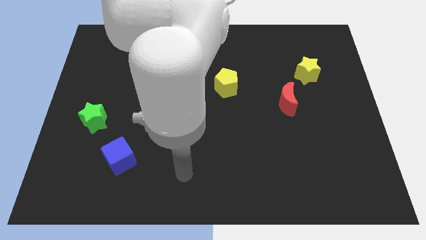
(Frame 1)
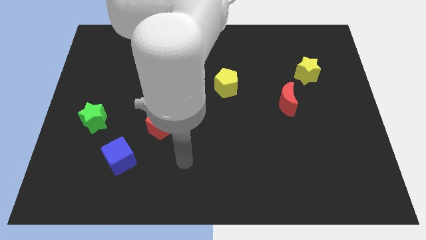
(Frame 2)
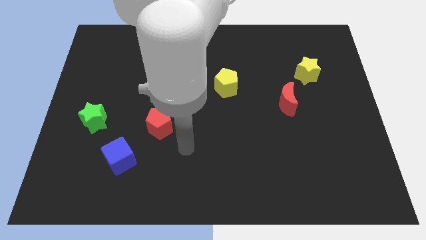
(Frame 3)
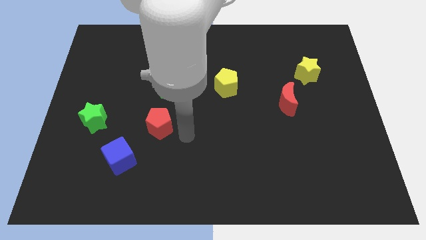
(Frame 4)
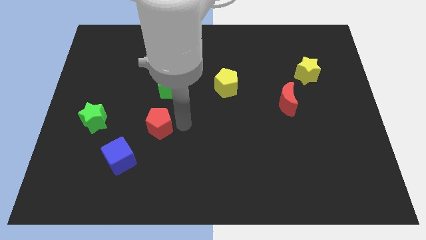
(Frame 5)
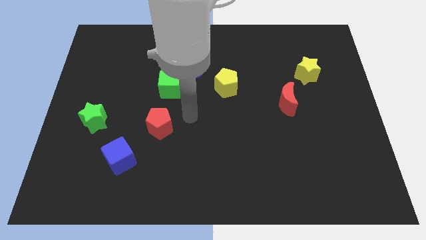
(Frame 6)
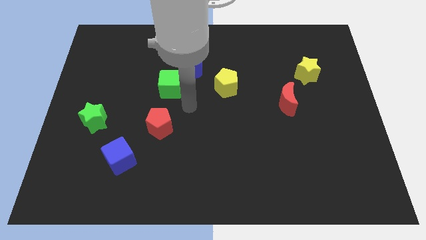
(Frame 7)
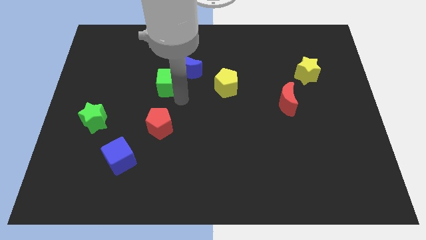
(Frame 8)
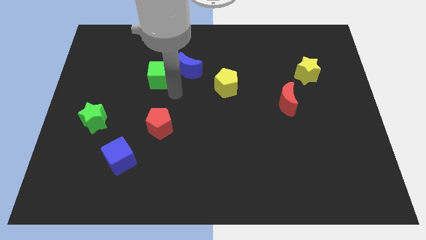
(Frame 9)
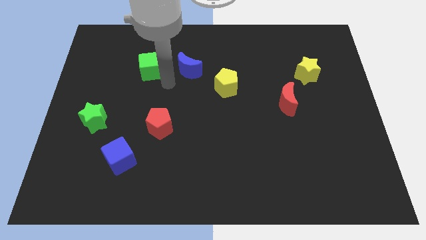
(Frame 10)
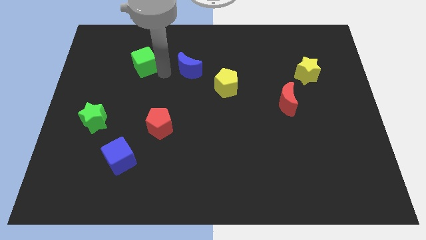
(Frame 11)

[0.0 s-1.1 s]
pull the blue moon apart from the green cube

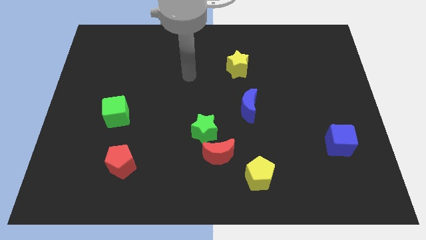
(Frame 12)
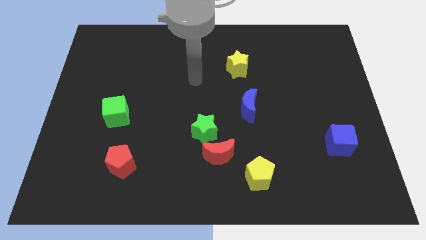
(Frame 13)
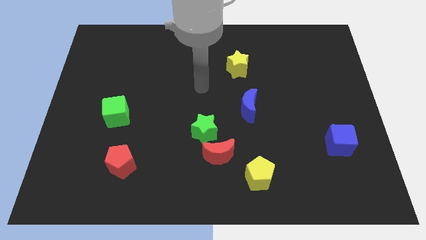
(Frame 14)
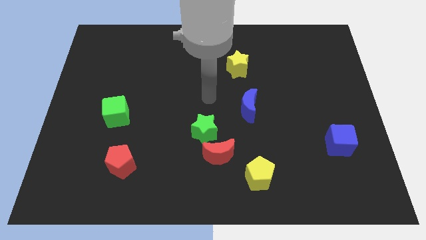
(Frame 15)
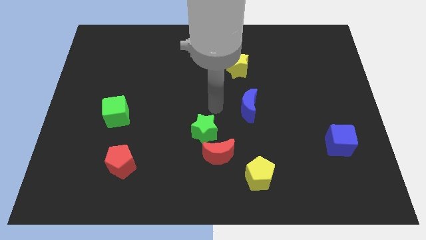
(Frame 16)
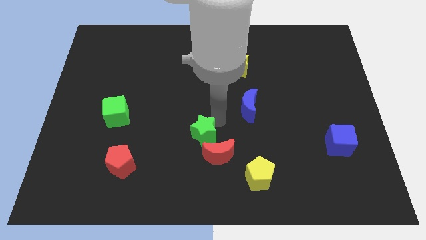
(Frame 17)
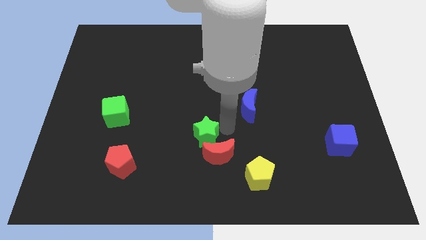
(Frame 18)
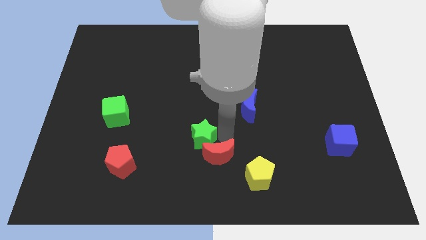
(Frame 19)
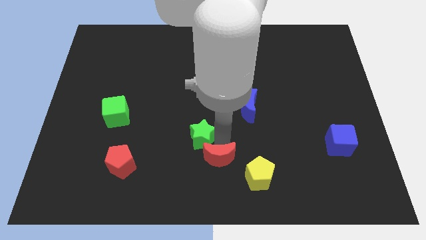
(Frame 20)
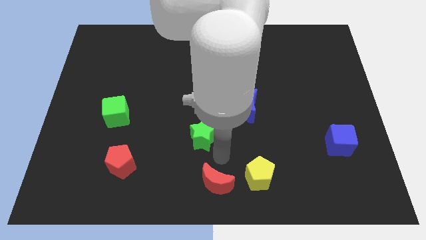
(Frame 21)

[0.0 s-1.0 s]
separate the green star from the red moon

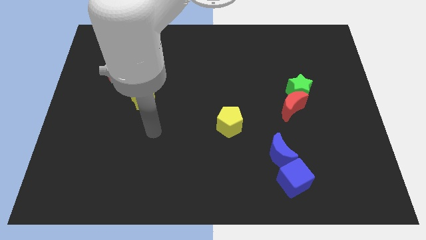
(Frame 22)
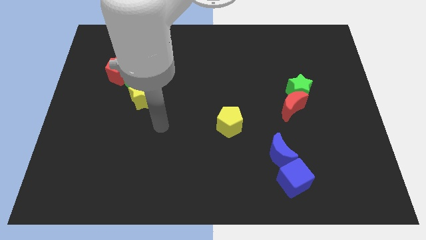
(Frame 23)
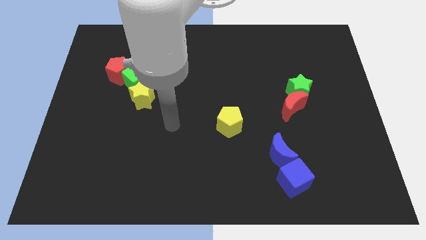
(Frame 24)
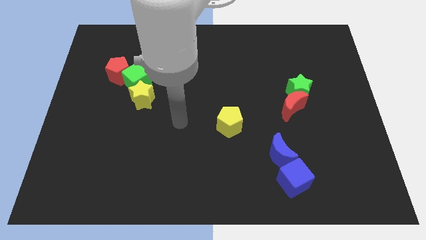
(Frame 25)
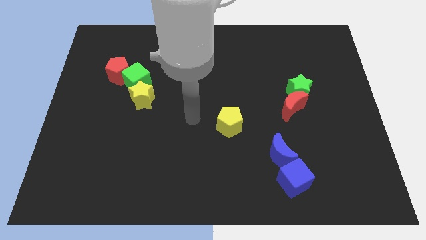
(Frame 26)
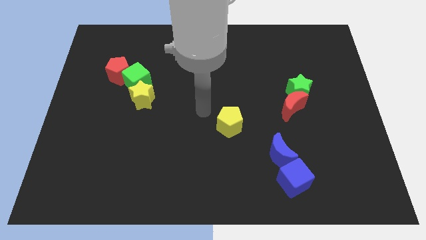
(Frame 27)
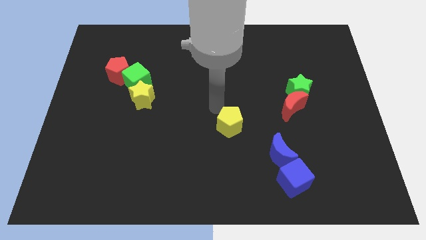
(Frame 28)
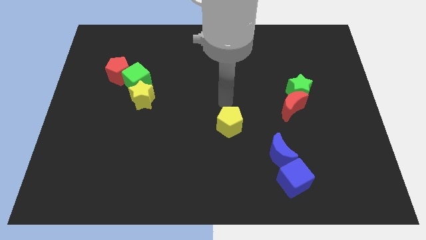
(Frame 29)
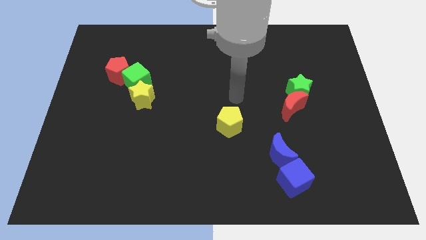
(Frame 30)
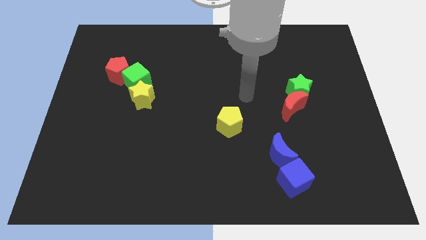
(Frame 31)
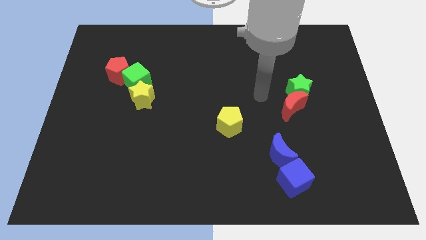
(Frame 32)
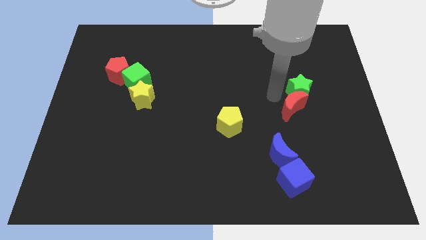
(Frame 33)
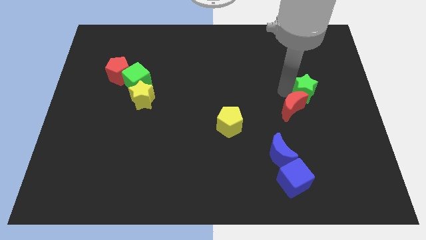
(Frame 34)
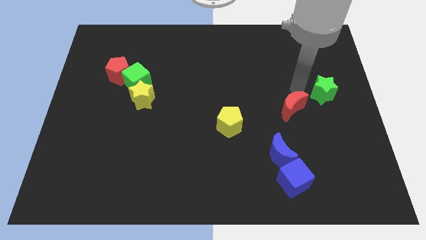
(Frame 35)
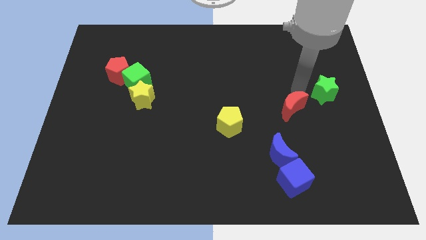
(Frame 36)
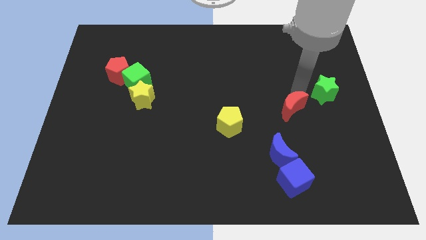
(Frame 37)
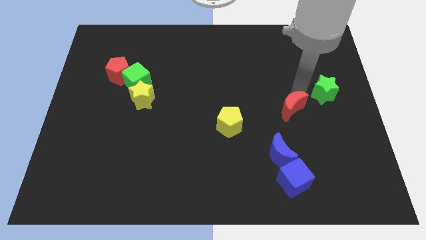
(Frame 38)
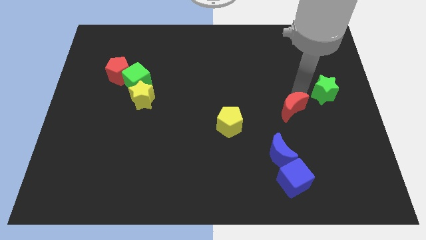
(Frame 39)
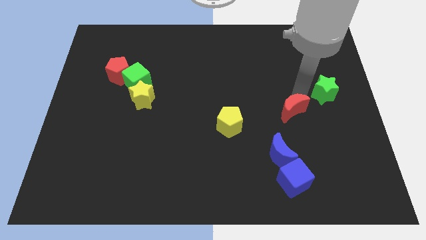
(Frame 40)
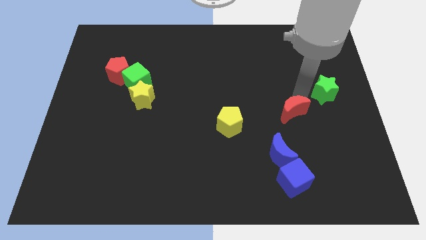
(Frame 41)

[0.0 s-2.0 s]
pull the red moon apart from the green star

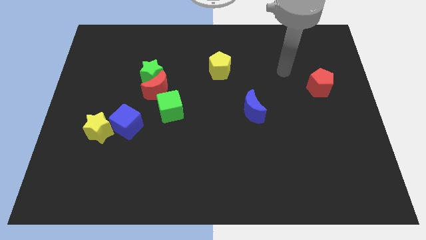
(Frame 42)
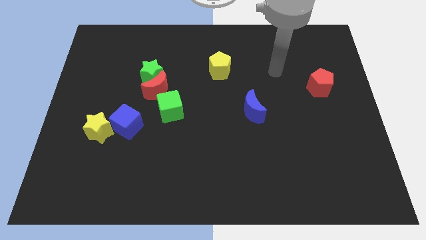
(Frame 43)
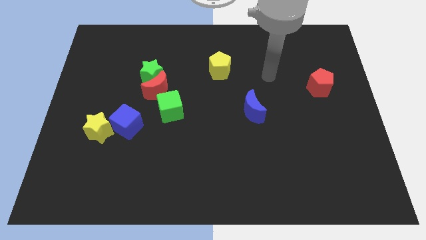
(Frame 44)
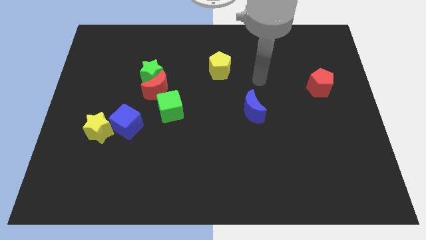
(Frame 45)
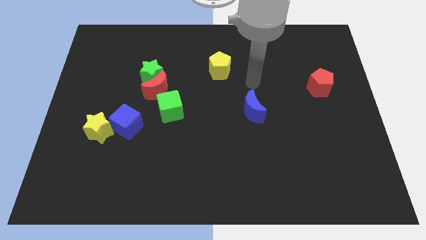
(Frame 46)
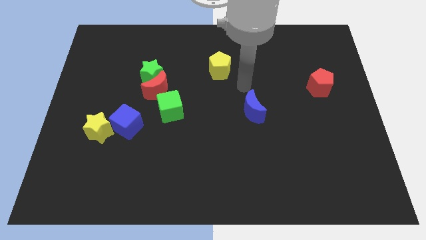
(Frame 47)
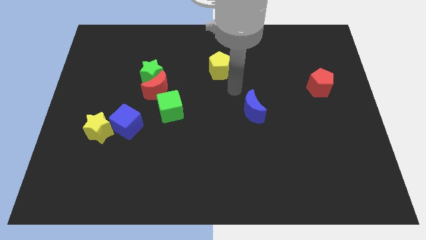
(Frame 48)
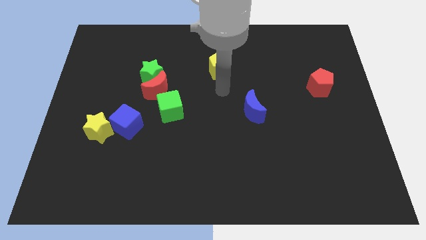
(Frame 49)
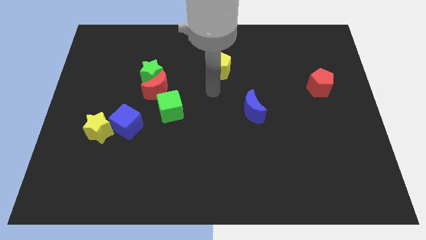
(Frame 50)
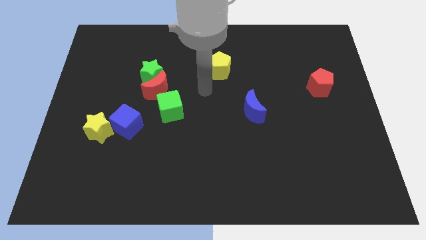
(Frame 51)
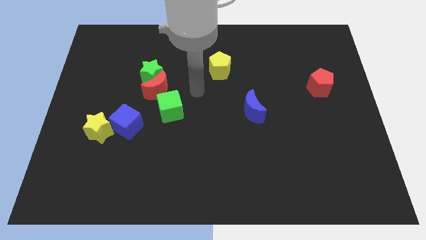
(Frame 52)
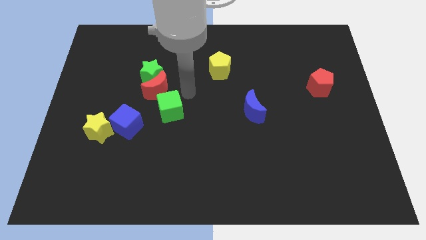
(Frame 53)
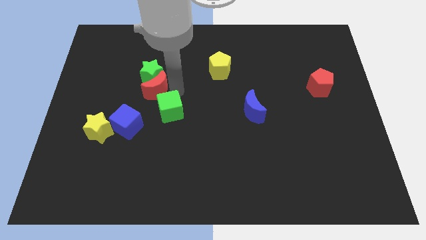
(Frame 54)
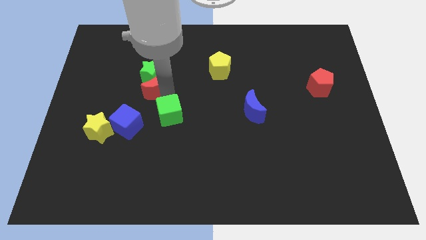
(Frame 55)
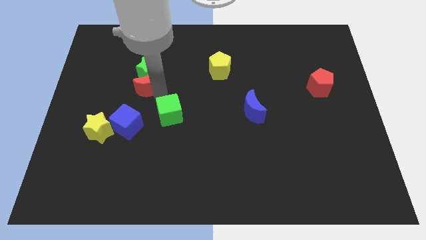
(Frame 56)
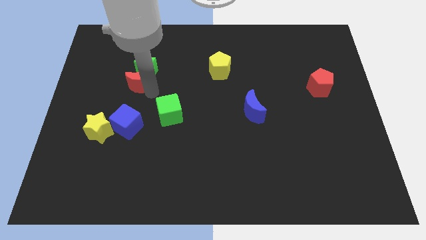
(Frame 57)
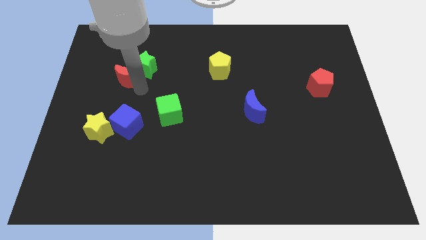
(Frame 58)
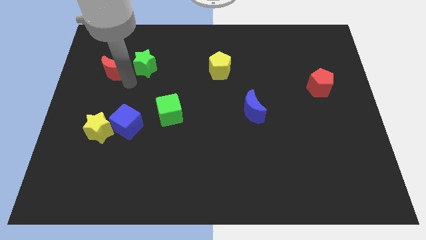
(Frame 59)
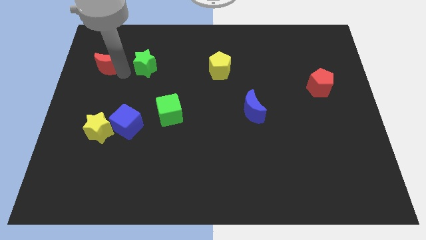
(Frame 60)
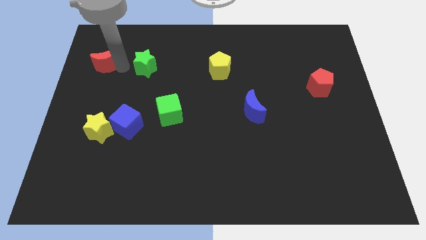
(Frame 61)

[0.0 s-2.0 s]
pull the green star apart from the red moon

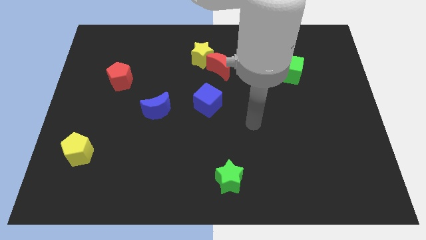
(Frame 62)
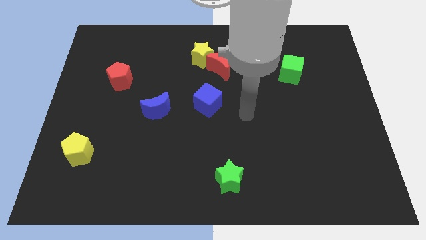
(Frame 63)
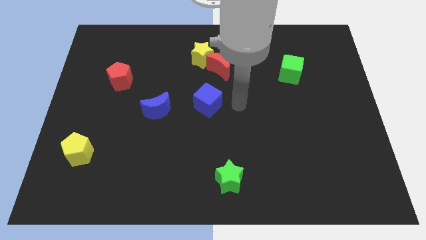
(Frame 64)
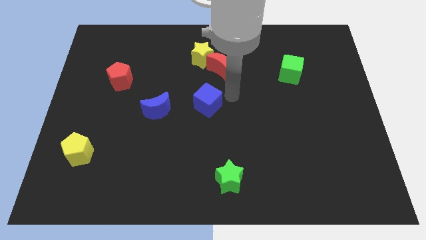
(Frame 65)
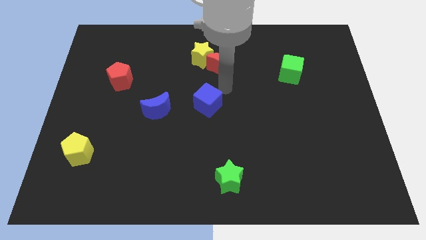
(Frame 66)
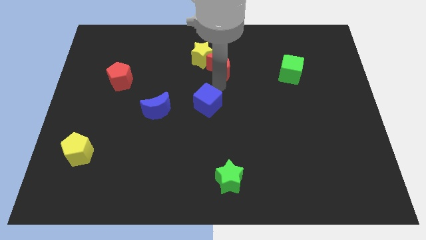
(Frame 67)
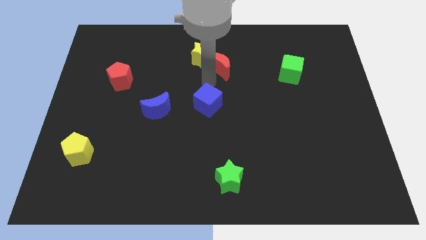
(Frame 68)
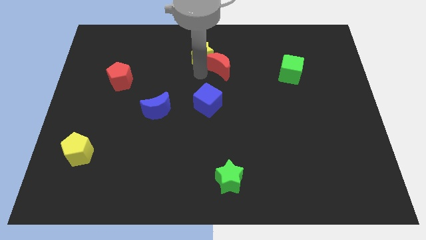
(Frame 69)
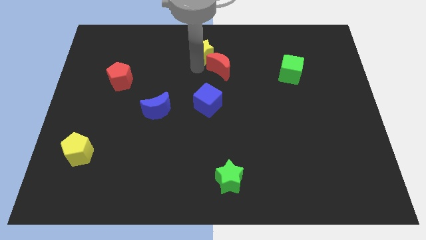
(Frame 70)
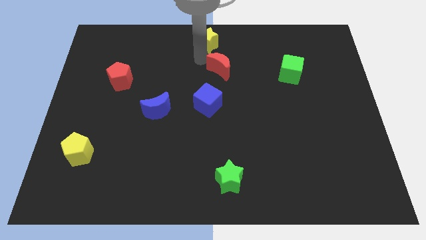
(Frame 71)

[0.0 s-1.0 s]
move the red moon away from the yellow star

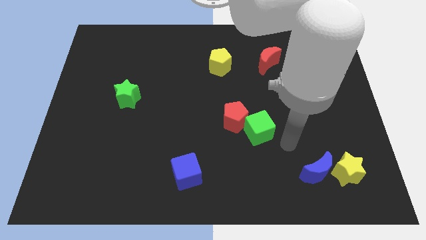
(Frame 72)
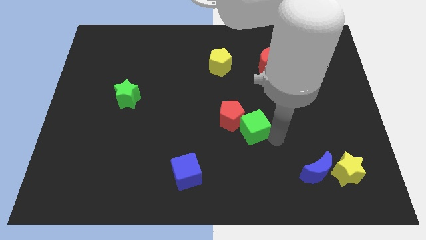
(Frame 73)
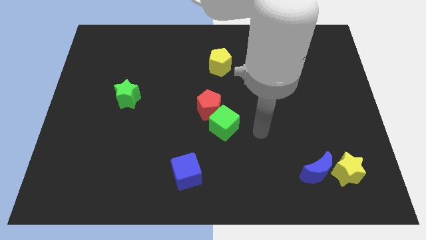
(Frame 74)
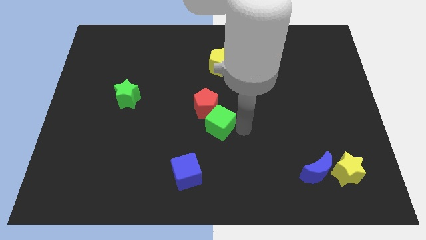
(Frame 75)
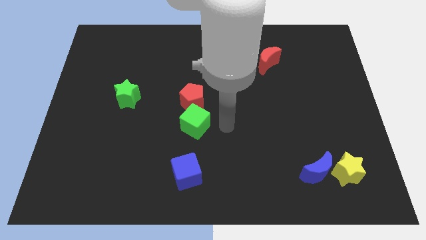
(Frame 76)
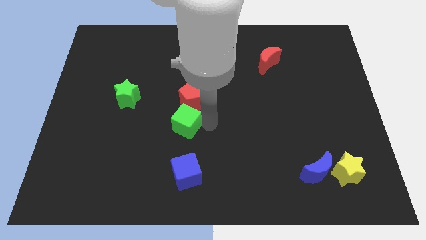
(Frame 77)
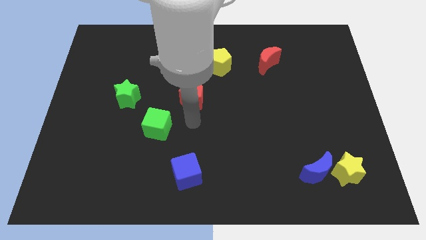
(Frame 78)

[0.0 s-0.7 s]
pull the red pentagon apart from the green cube

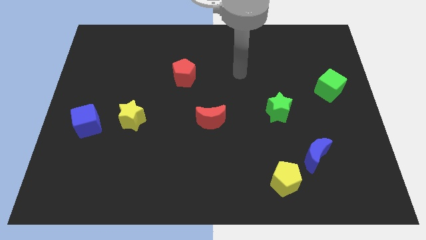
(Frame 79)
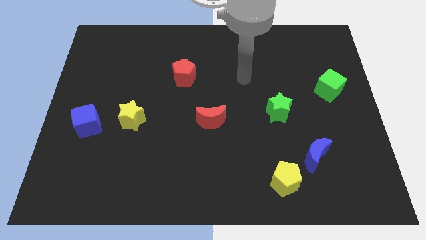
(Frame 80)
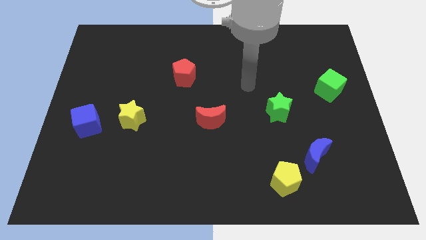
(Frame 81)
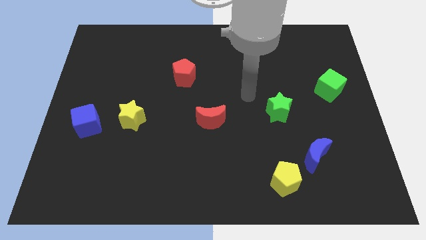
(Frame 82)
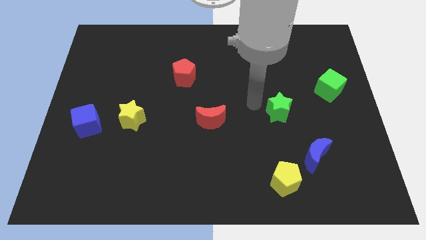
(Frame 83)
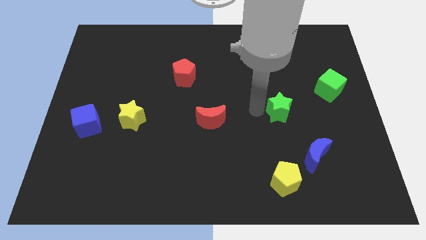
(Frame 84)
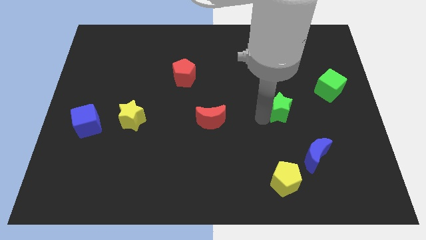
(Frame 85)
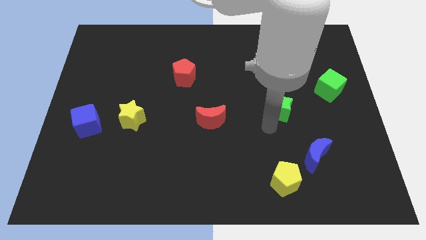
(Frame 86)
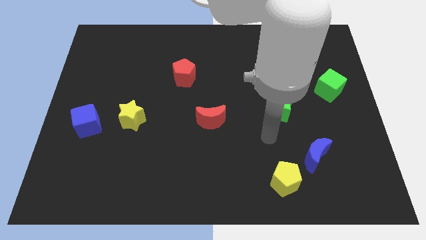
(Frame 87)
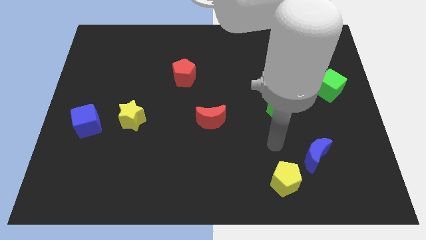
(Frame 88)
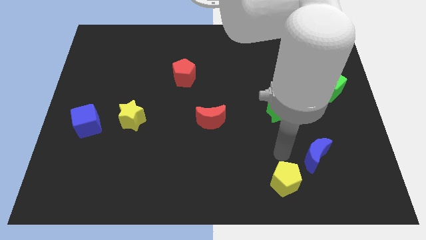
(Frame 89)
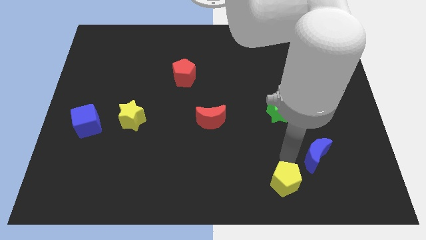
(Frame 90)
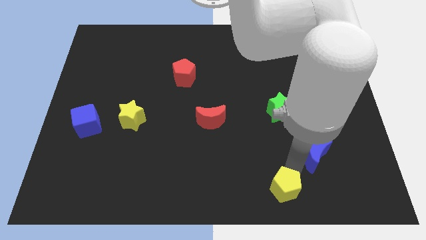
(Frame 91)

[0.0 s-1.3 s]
separate the blue moon from the yellow pentagon

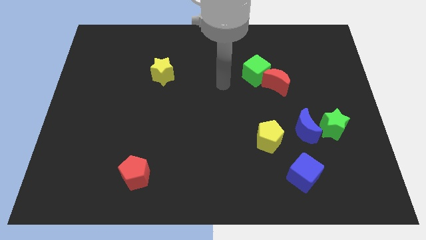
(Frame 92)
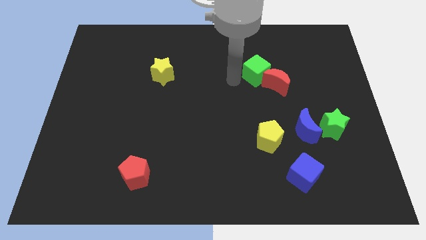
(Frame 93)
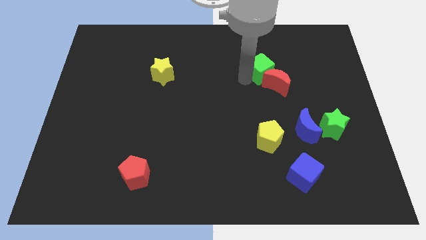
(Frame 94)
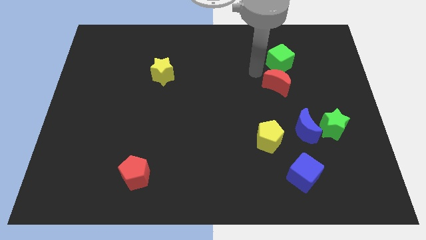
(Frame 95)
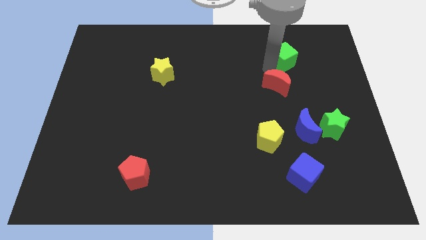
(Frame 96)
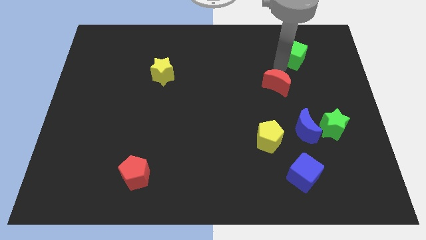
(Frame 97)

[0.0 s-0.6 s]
separate the red moon from the green cube
